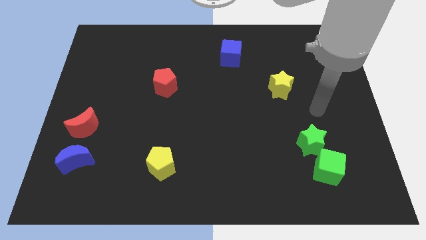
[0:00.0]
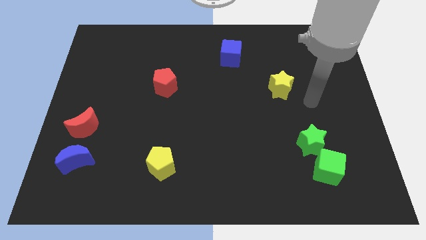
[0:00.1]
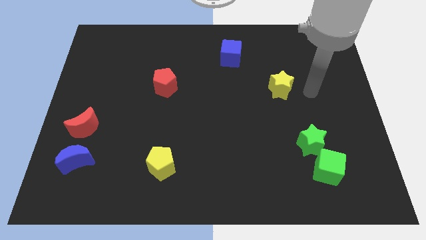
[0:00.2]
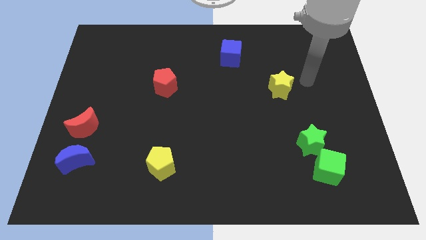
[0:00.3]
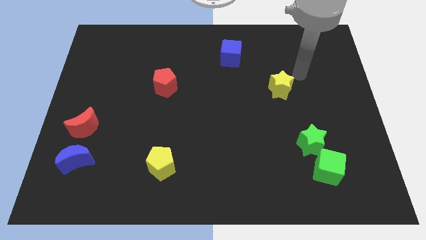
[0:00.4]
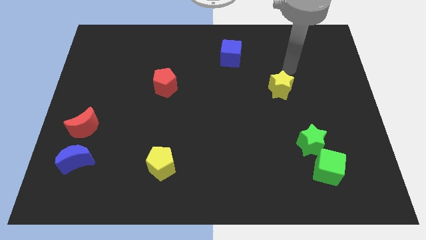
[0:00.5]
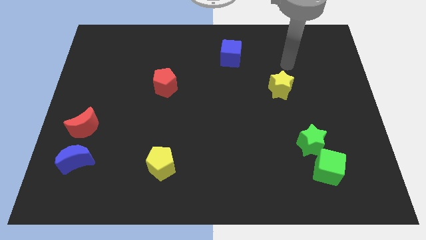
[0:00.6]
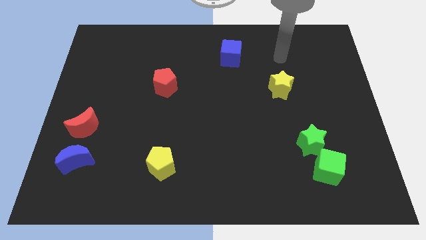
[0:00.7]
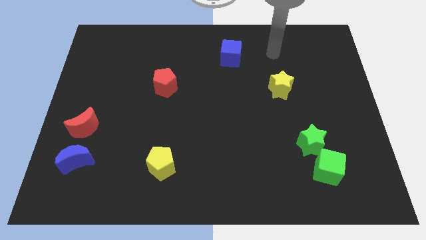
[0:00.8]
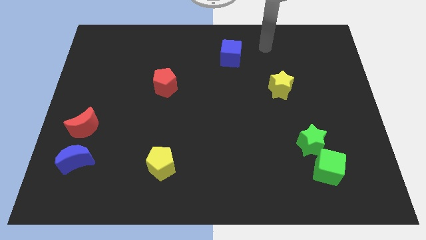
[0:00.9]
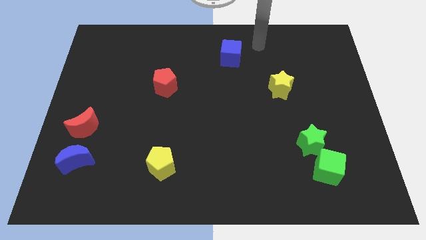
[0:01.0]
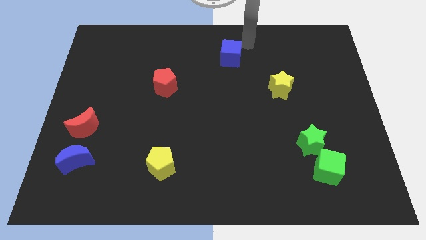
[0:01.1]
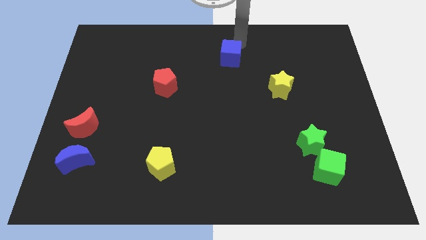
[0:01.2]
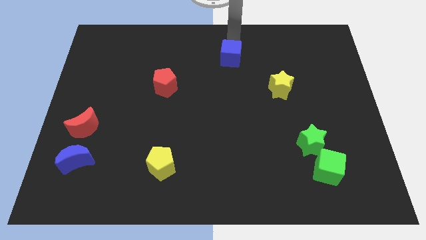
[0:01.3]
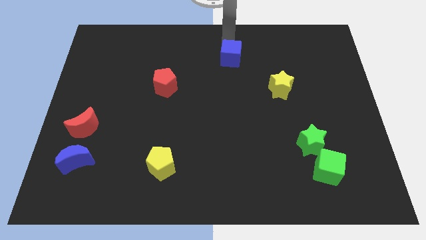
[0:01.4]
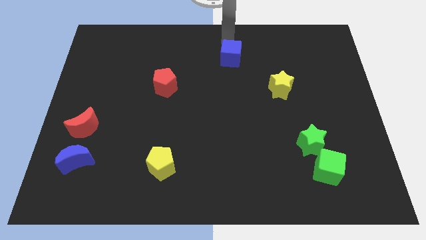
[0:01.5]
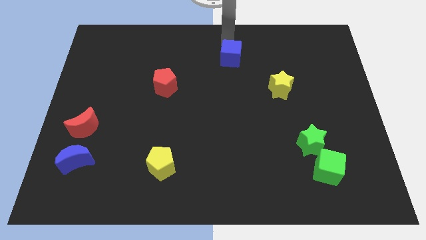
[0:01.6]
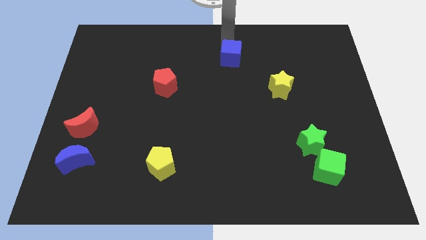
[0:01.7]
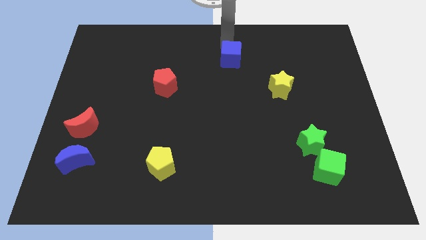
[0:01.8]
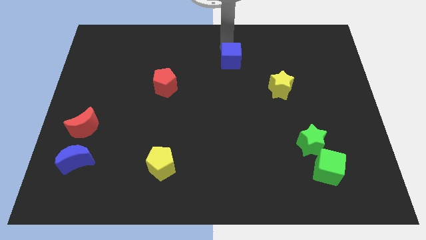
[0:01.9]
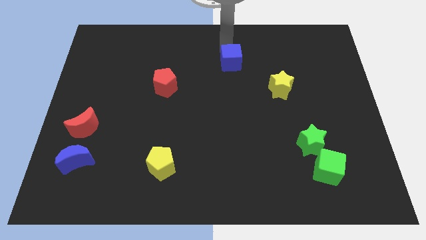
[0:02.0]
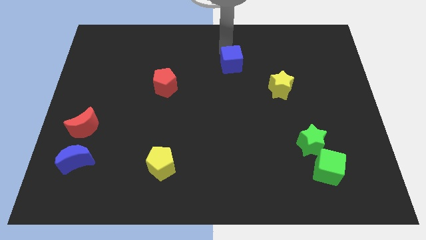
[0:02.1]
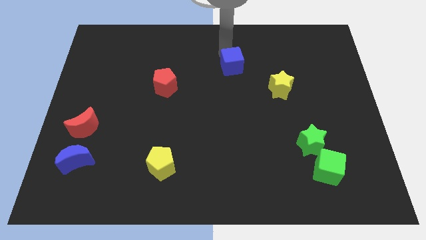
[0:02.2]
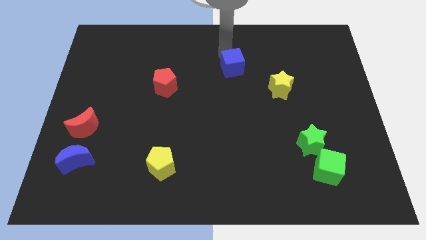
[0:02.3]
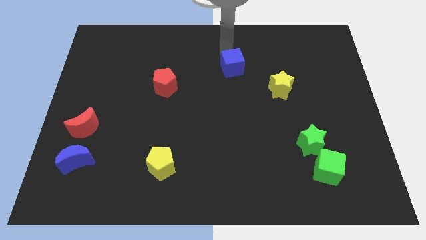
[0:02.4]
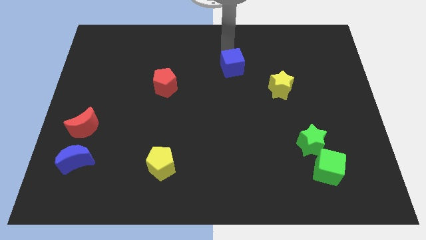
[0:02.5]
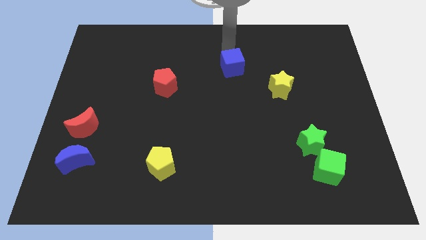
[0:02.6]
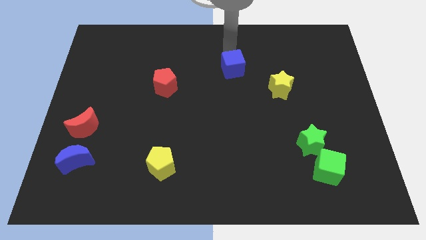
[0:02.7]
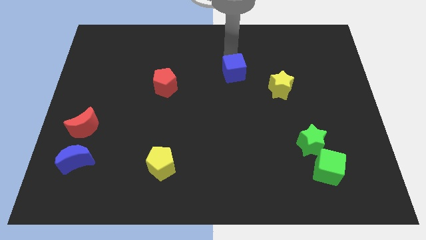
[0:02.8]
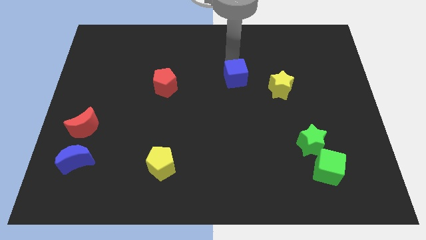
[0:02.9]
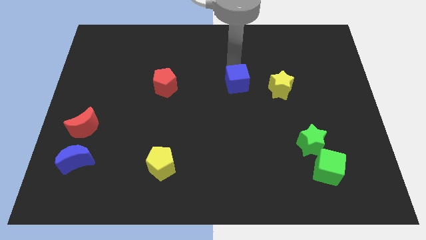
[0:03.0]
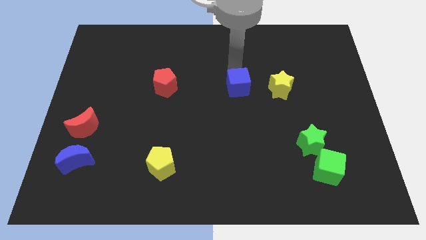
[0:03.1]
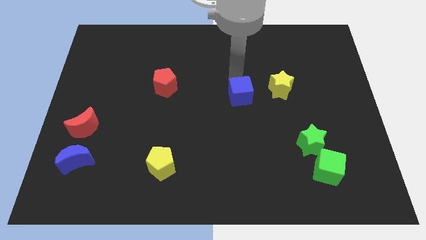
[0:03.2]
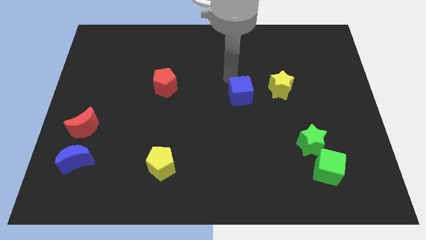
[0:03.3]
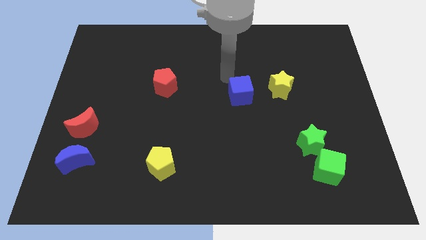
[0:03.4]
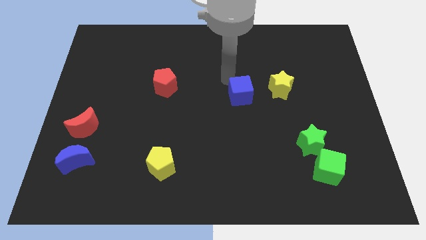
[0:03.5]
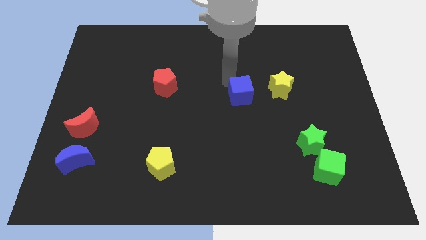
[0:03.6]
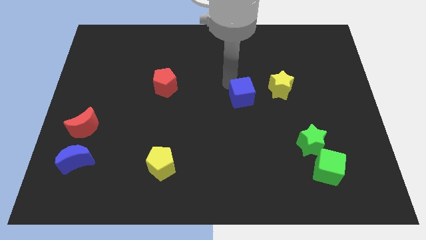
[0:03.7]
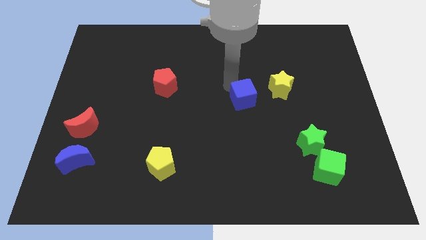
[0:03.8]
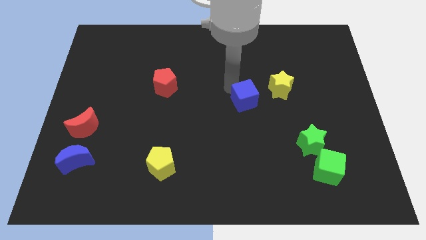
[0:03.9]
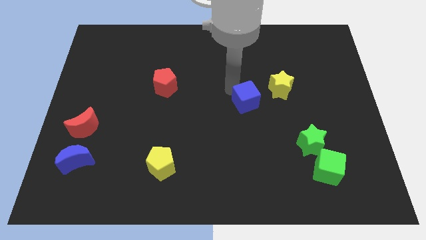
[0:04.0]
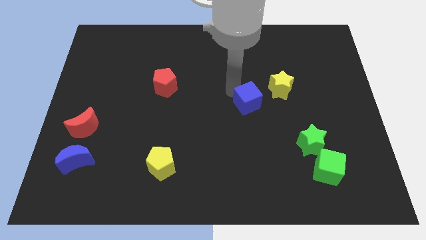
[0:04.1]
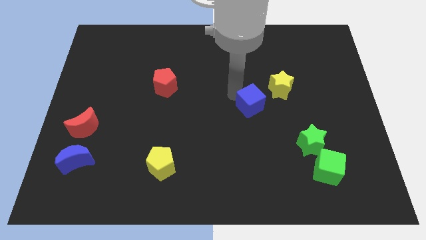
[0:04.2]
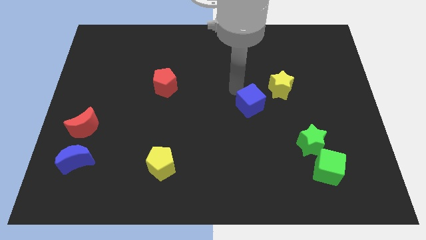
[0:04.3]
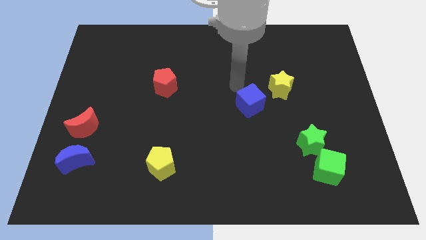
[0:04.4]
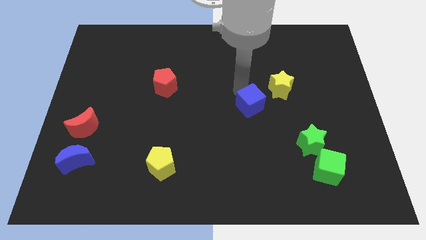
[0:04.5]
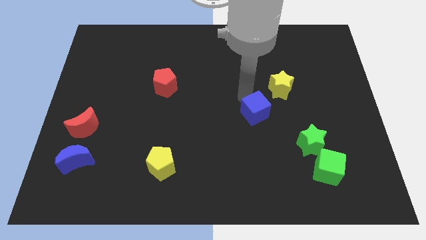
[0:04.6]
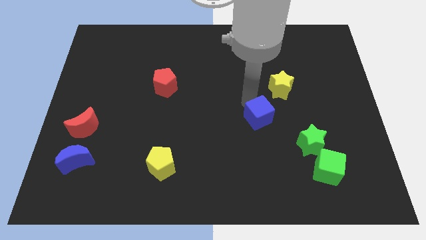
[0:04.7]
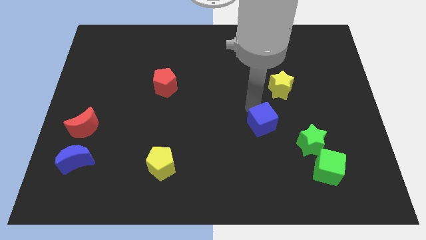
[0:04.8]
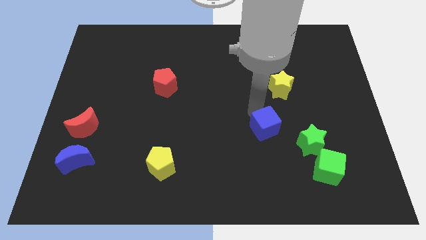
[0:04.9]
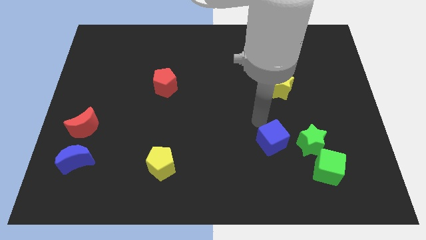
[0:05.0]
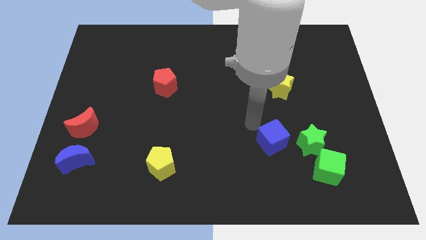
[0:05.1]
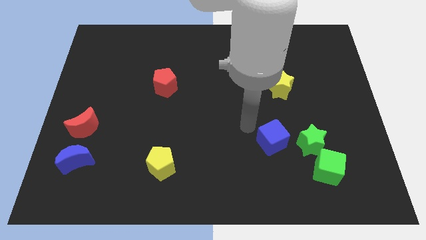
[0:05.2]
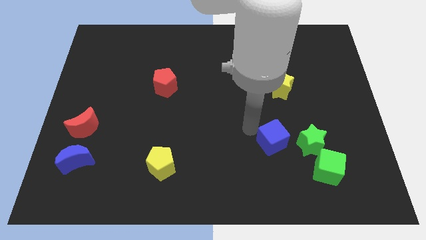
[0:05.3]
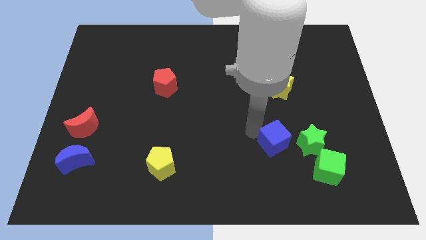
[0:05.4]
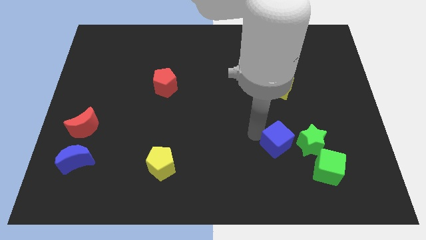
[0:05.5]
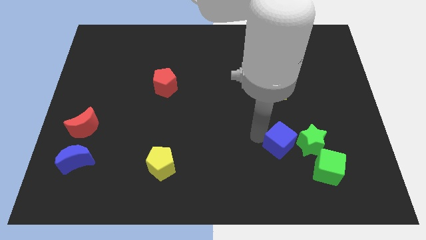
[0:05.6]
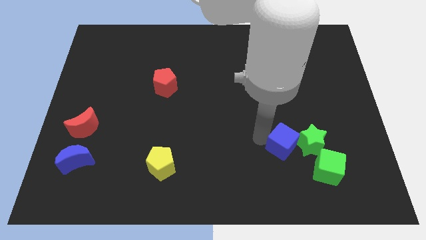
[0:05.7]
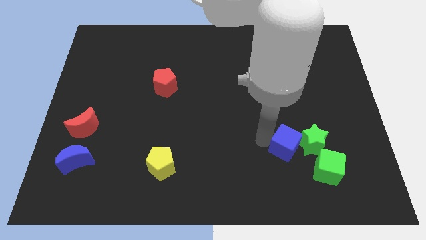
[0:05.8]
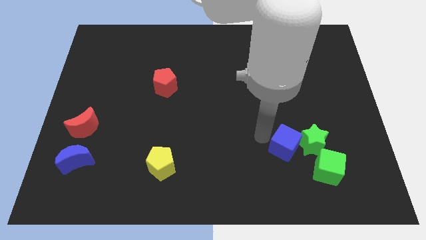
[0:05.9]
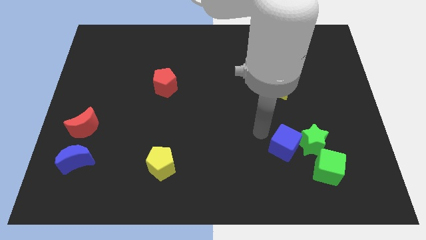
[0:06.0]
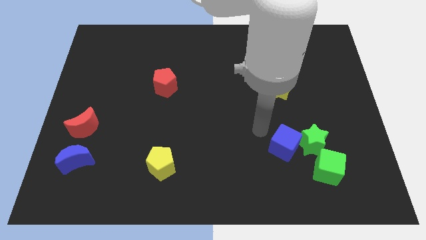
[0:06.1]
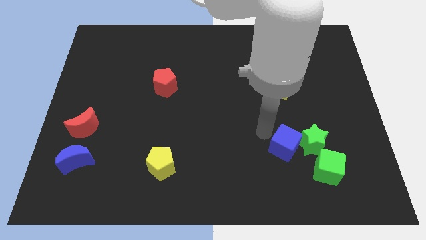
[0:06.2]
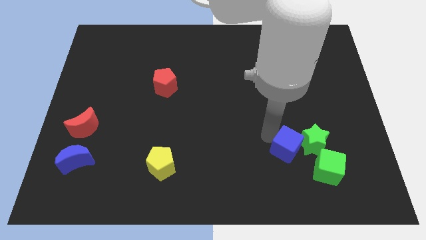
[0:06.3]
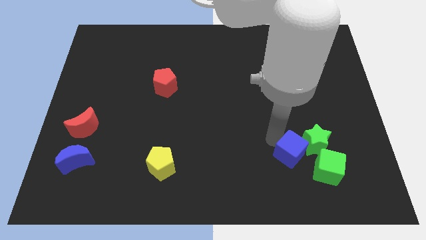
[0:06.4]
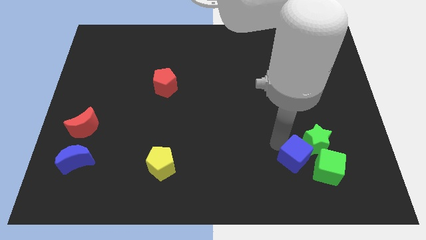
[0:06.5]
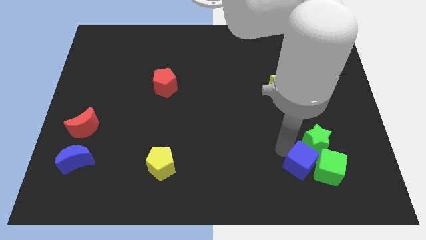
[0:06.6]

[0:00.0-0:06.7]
move the blue cube towards the green cube
